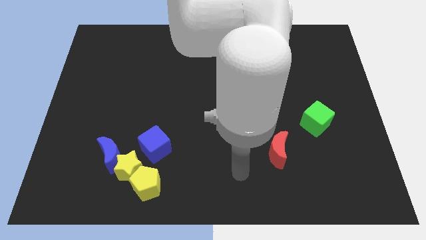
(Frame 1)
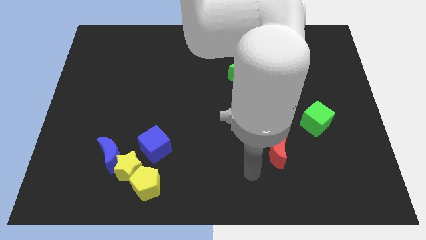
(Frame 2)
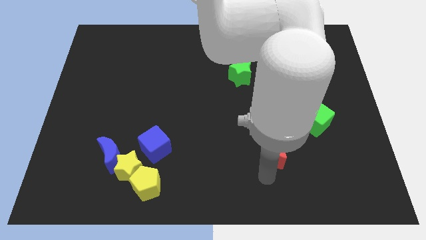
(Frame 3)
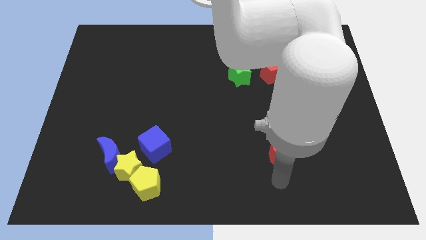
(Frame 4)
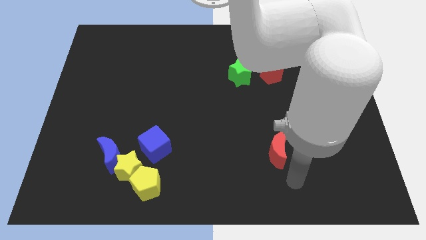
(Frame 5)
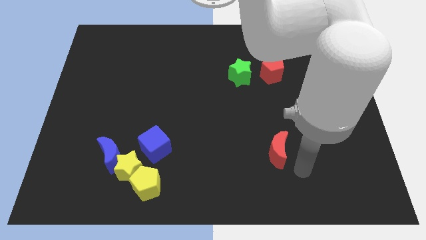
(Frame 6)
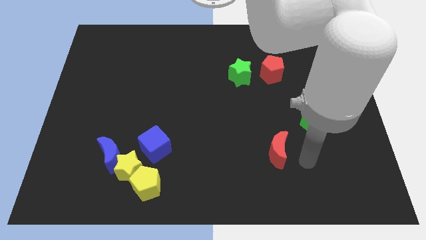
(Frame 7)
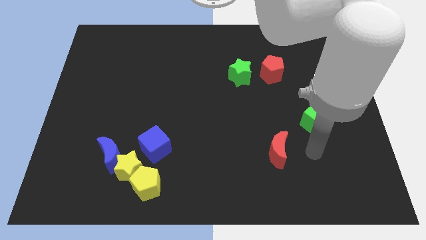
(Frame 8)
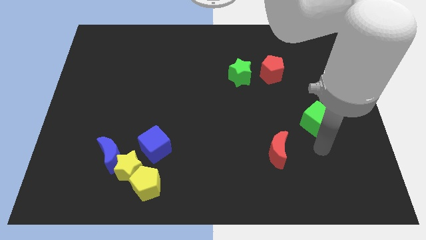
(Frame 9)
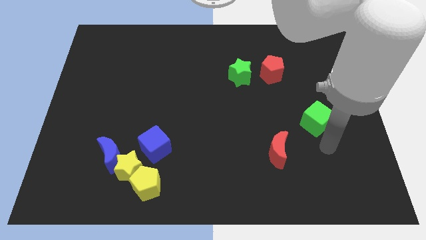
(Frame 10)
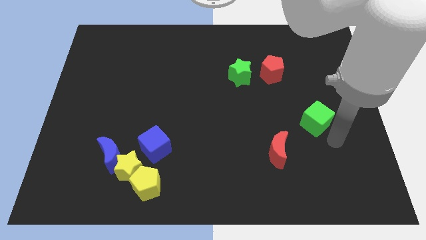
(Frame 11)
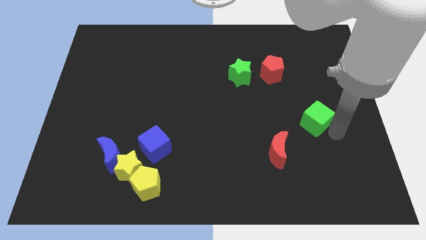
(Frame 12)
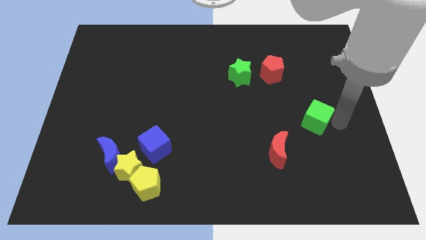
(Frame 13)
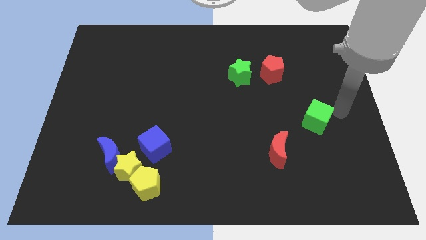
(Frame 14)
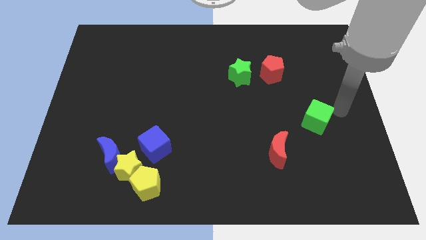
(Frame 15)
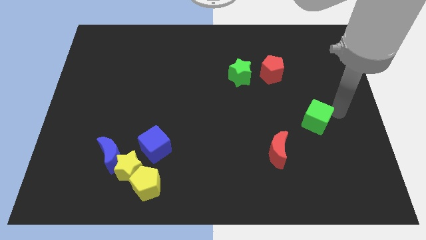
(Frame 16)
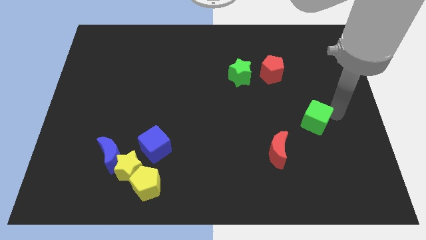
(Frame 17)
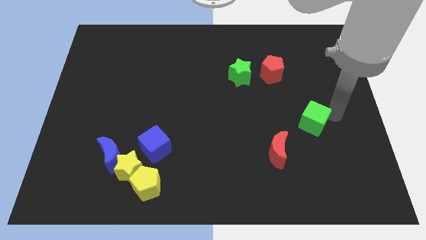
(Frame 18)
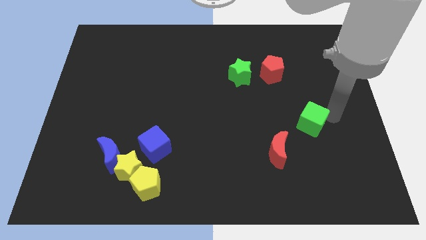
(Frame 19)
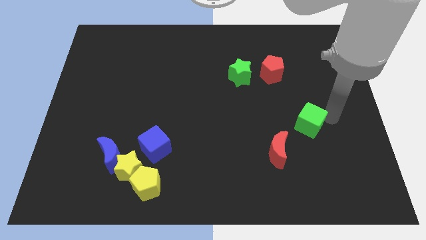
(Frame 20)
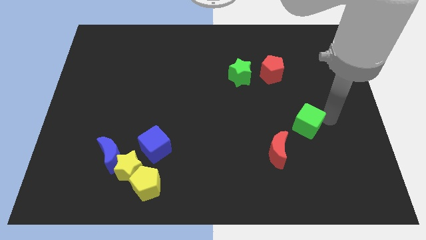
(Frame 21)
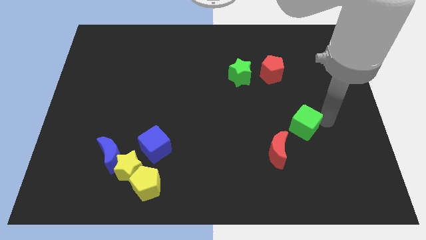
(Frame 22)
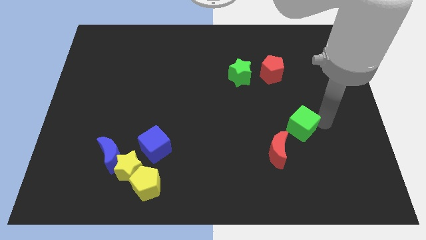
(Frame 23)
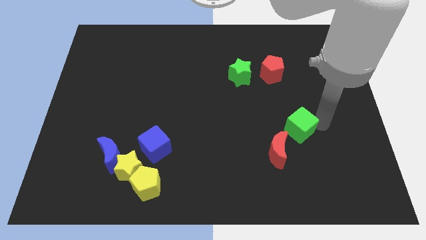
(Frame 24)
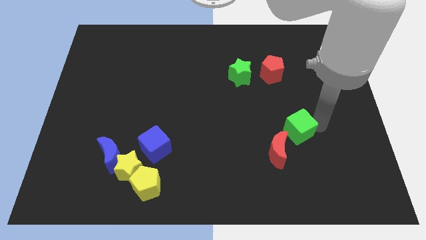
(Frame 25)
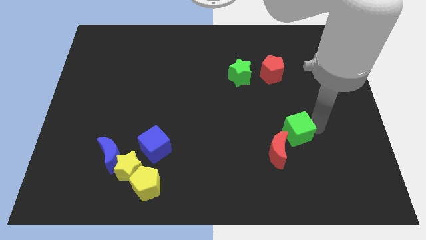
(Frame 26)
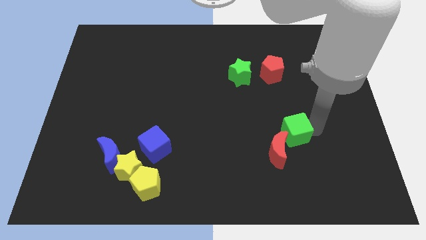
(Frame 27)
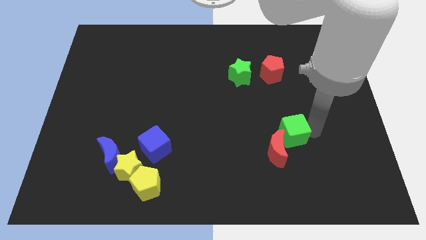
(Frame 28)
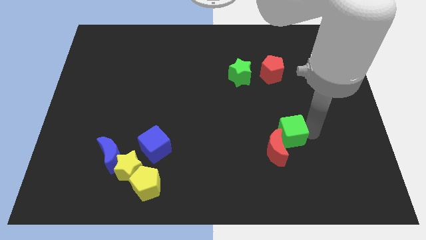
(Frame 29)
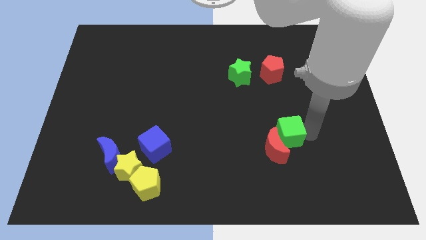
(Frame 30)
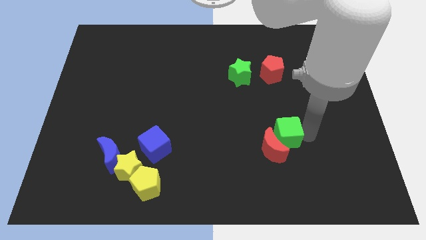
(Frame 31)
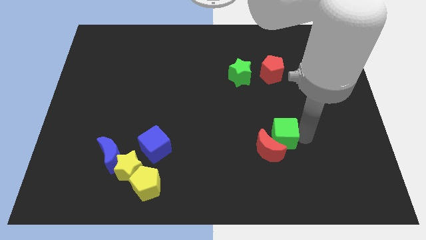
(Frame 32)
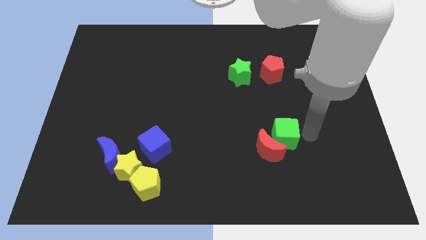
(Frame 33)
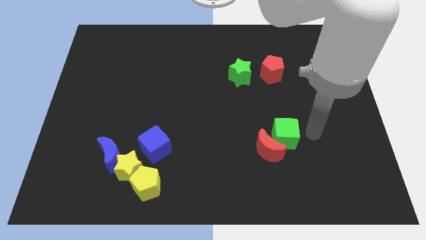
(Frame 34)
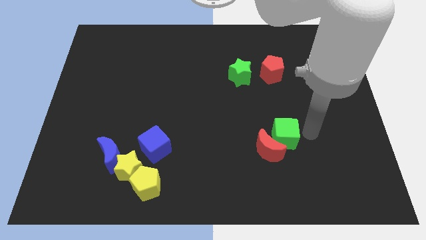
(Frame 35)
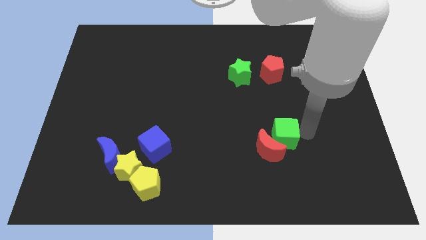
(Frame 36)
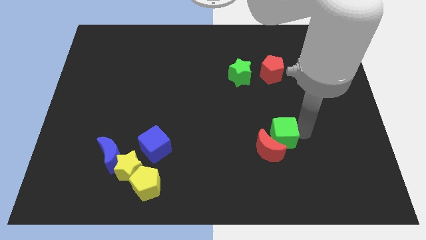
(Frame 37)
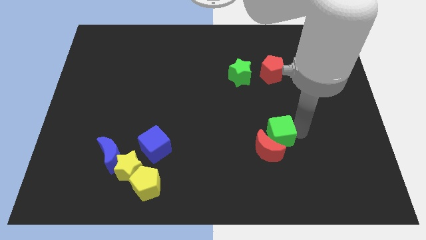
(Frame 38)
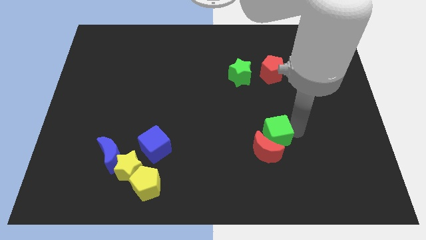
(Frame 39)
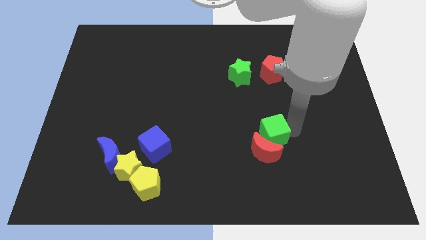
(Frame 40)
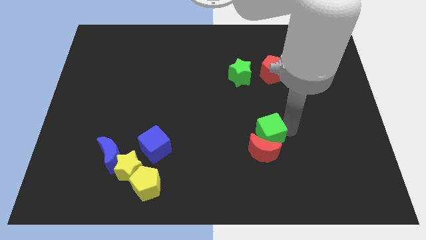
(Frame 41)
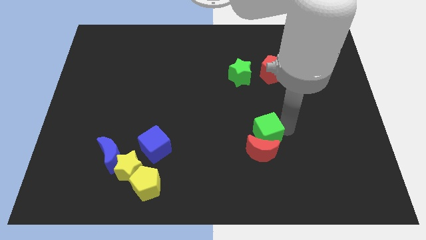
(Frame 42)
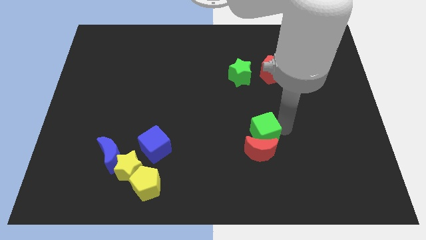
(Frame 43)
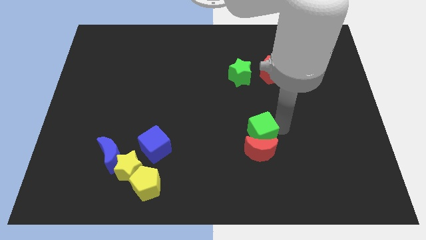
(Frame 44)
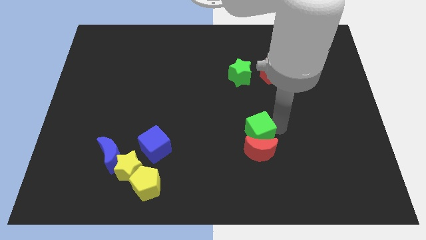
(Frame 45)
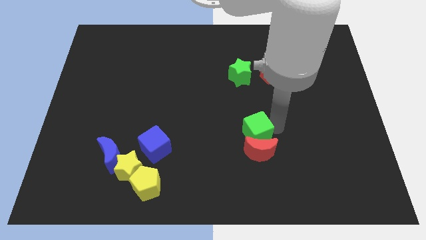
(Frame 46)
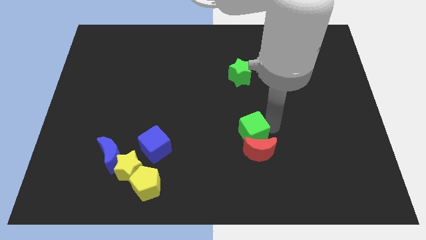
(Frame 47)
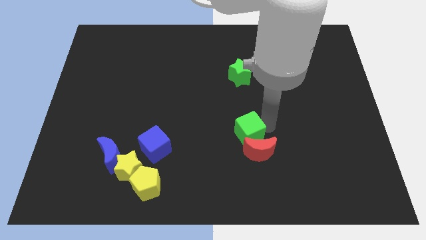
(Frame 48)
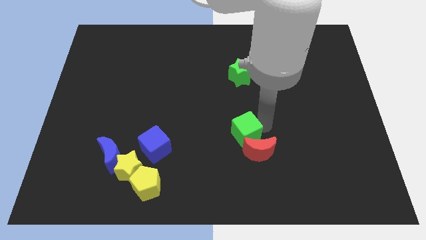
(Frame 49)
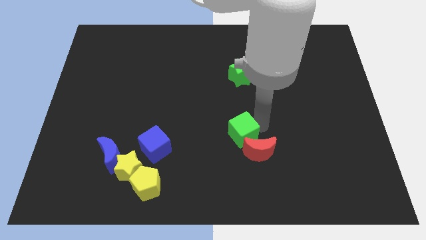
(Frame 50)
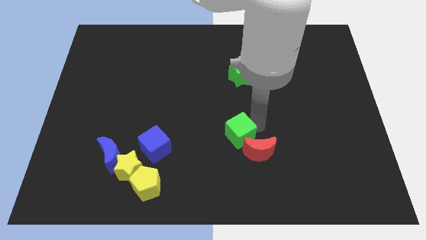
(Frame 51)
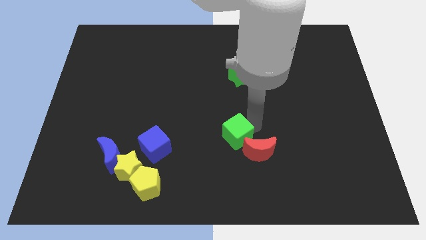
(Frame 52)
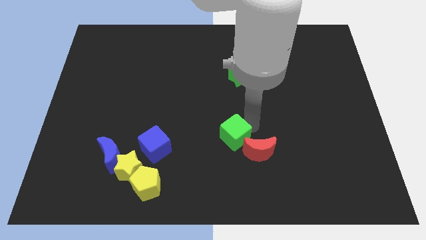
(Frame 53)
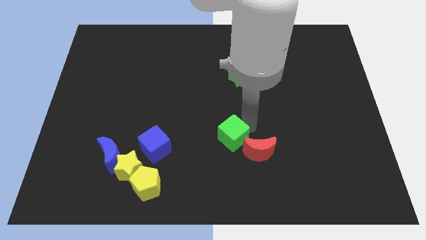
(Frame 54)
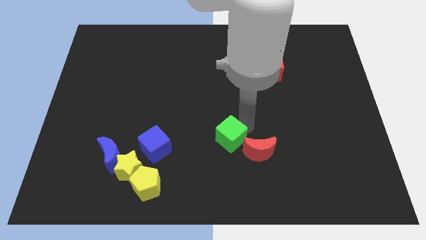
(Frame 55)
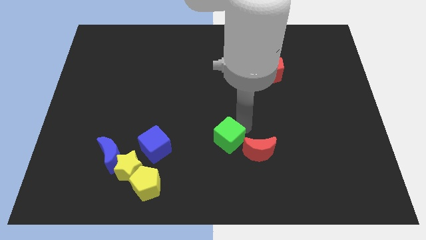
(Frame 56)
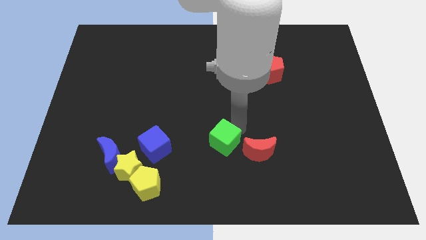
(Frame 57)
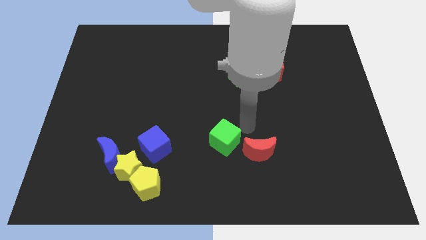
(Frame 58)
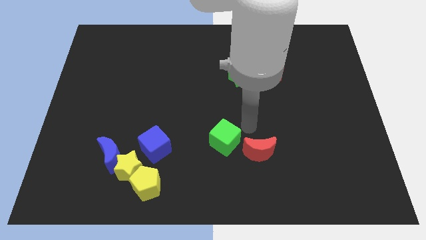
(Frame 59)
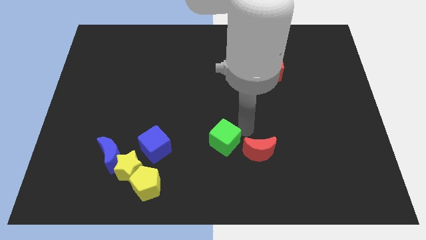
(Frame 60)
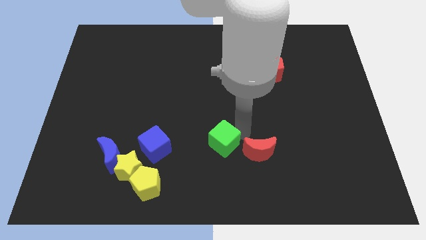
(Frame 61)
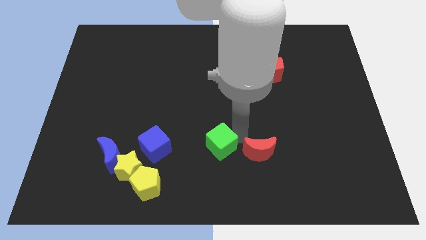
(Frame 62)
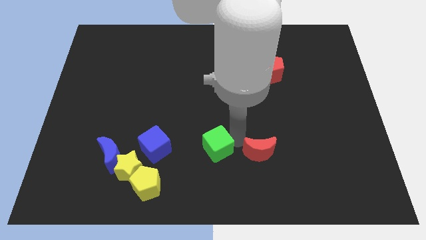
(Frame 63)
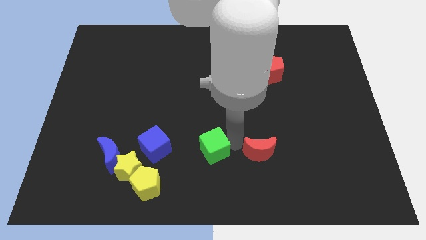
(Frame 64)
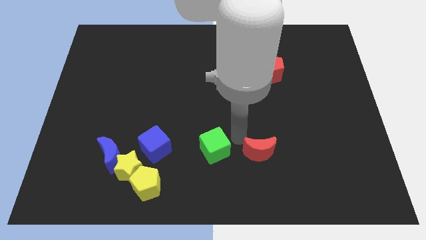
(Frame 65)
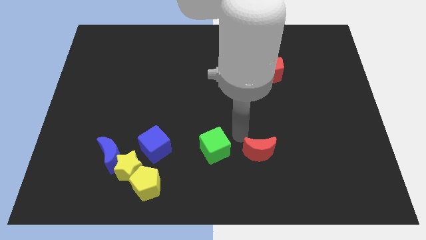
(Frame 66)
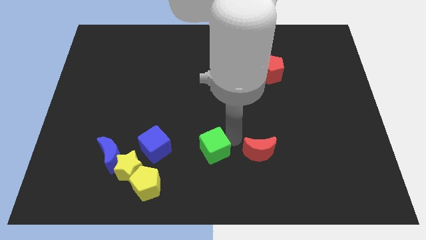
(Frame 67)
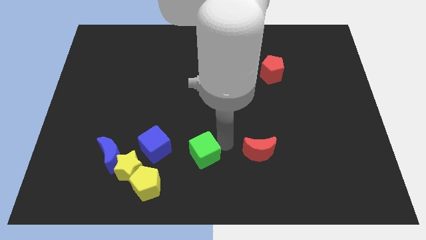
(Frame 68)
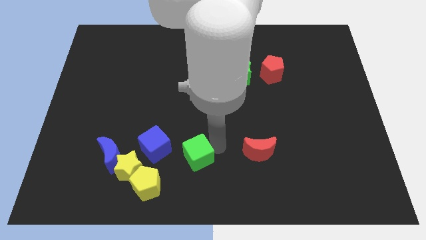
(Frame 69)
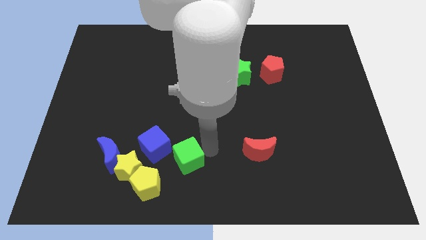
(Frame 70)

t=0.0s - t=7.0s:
move the green cube to the bottom right of the blue cube
